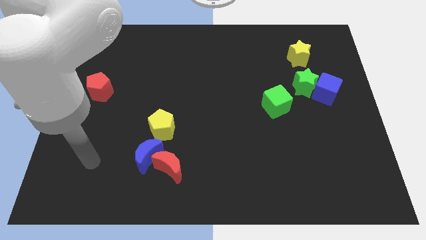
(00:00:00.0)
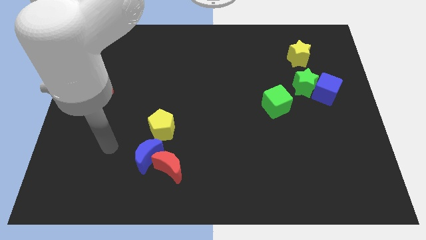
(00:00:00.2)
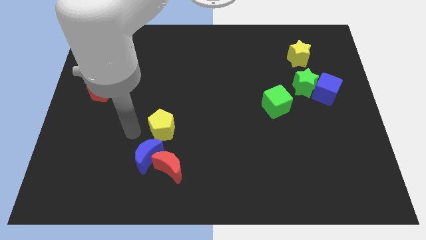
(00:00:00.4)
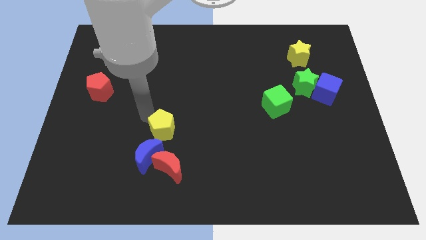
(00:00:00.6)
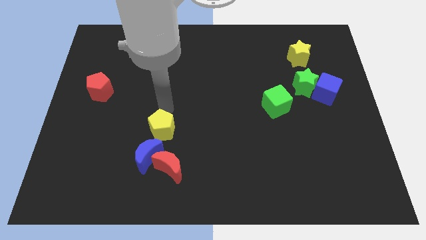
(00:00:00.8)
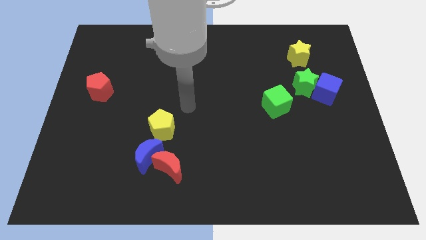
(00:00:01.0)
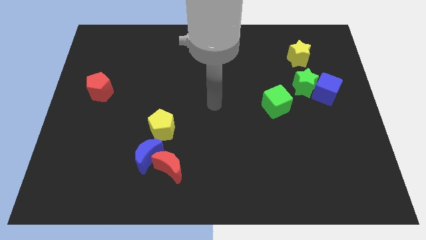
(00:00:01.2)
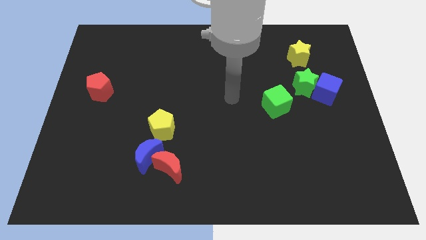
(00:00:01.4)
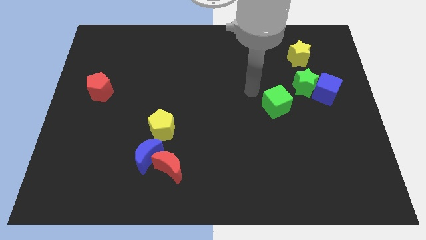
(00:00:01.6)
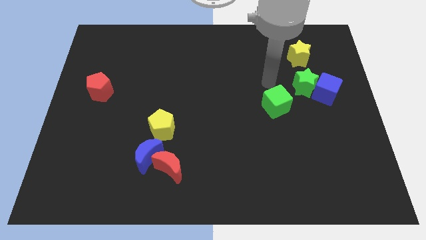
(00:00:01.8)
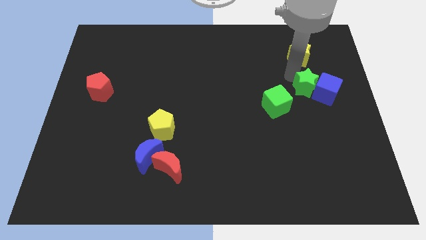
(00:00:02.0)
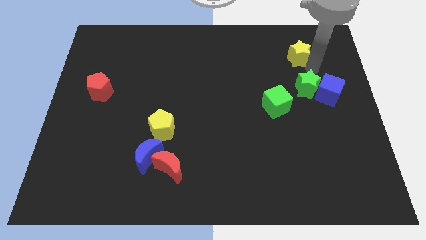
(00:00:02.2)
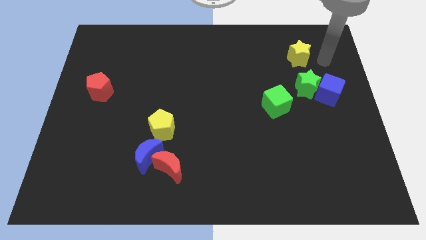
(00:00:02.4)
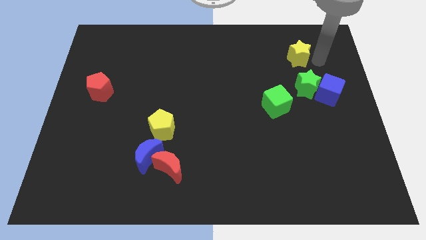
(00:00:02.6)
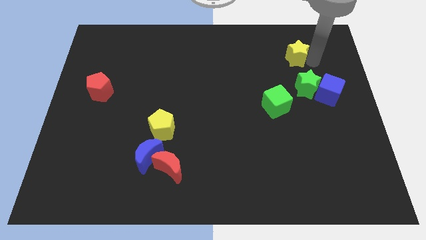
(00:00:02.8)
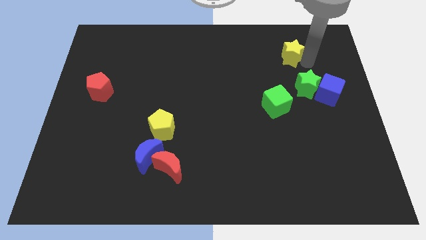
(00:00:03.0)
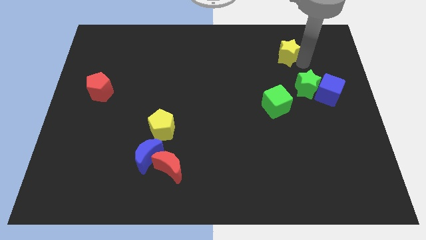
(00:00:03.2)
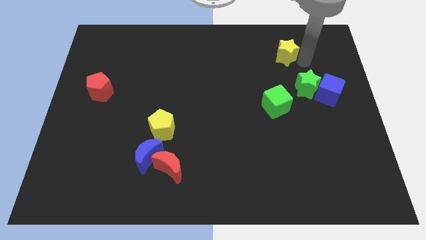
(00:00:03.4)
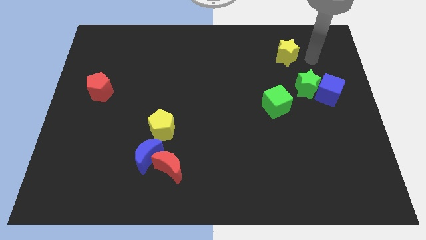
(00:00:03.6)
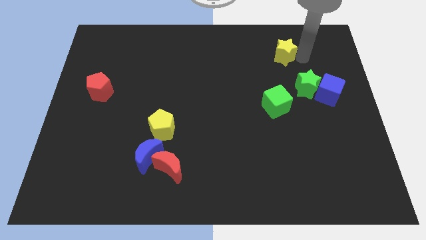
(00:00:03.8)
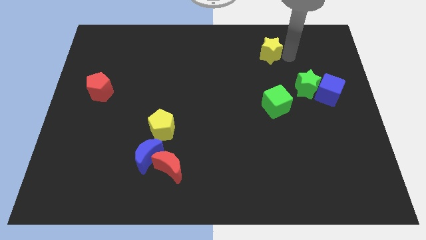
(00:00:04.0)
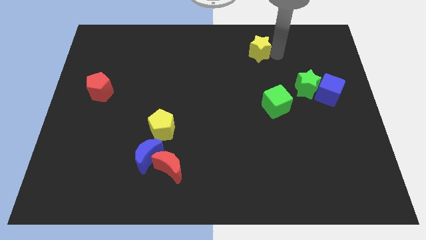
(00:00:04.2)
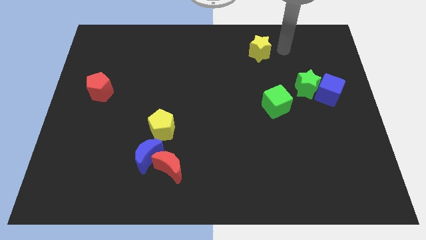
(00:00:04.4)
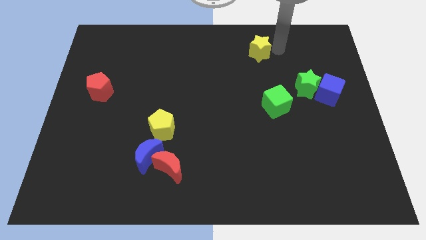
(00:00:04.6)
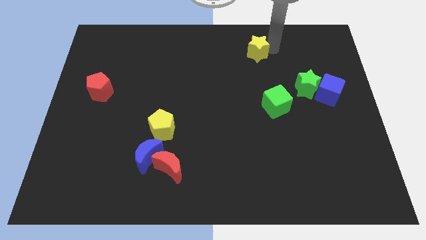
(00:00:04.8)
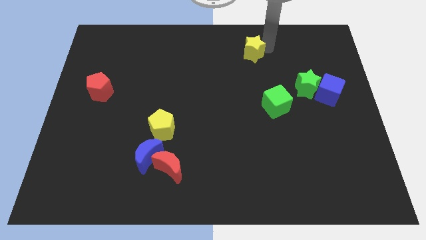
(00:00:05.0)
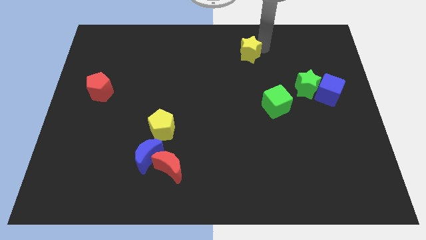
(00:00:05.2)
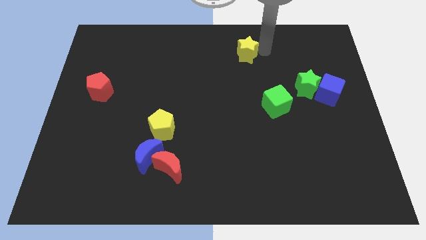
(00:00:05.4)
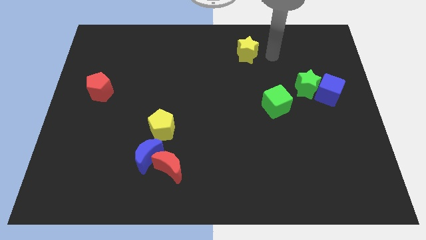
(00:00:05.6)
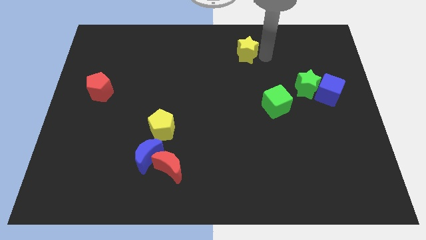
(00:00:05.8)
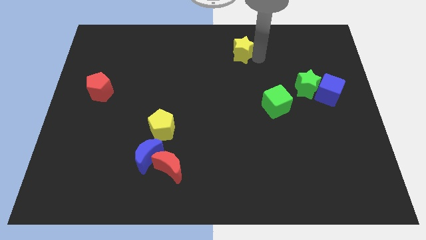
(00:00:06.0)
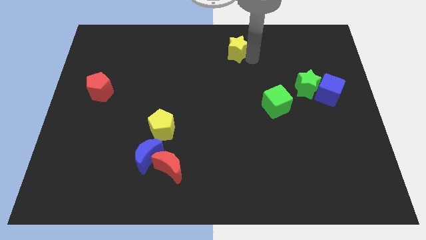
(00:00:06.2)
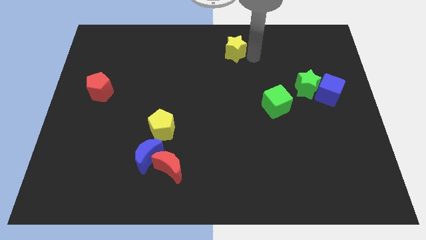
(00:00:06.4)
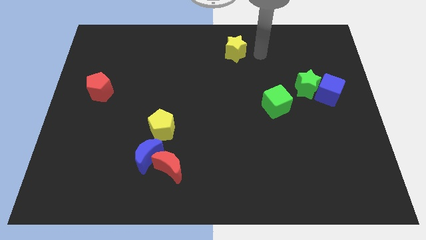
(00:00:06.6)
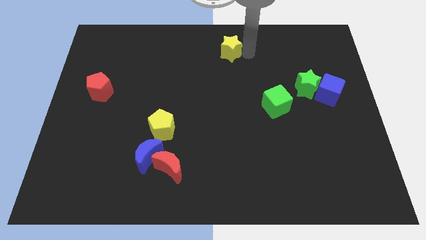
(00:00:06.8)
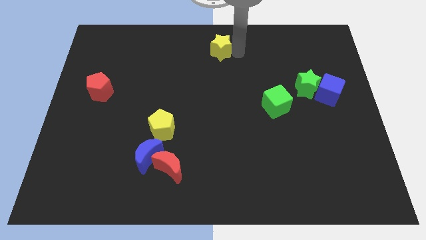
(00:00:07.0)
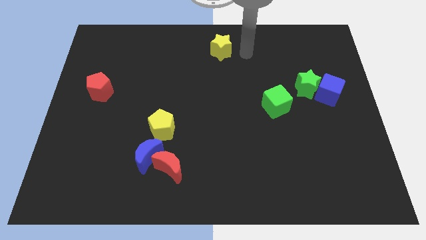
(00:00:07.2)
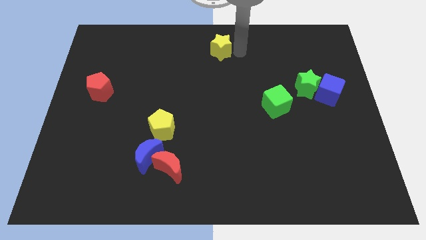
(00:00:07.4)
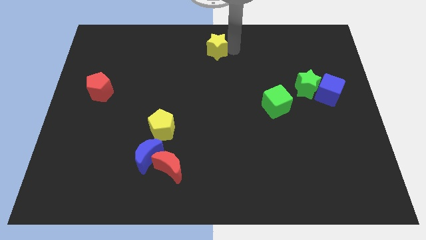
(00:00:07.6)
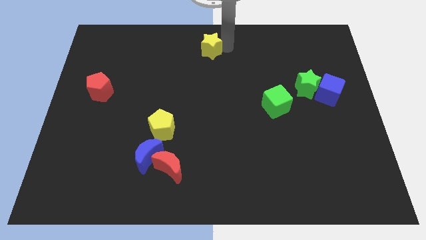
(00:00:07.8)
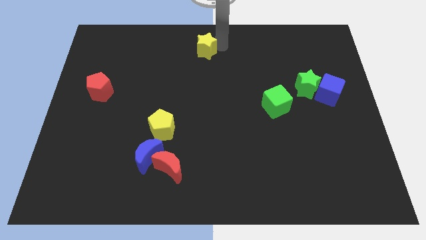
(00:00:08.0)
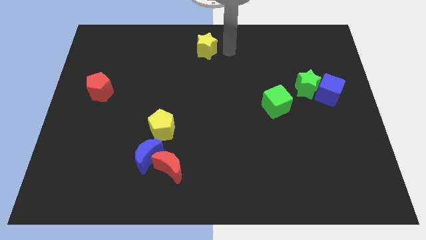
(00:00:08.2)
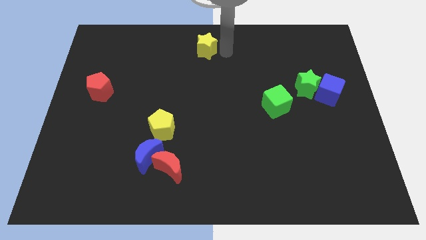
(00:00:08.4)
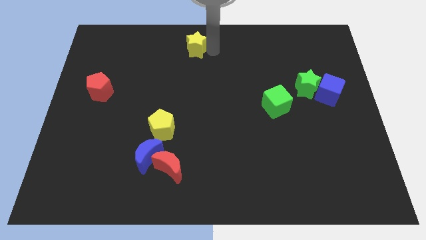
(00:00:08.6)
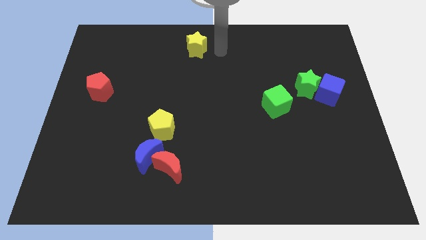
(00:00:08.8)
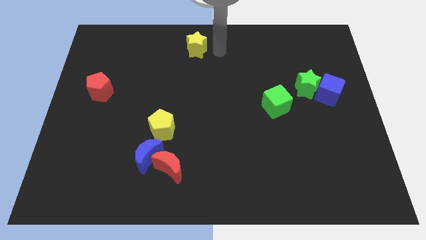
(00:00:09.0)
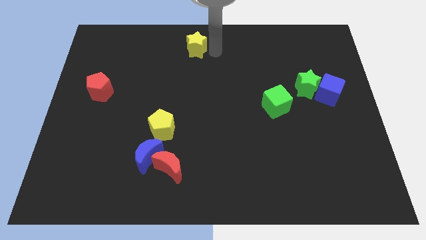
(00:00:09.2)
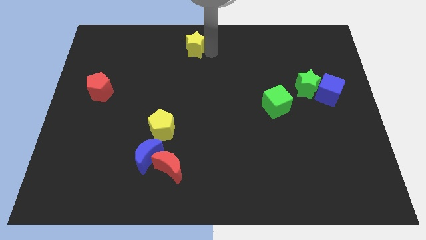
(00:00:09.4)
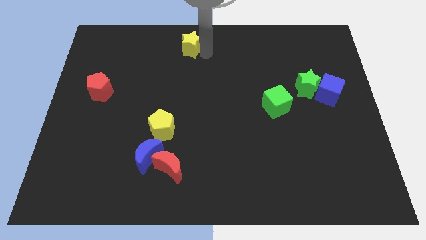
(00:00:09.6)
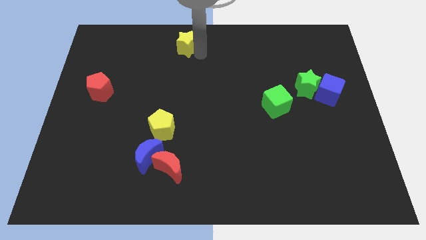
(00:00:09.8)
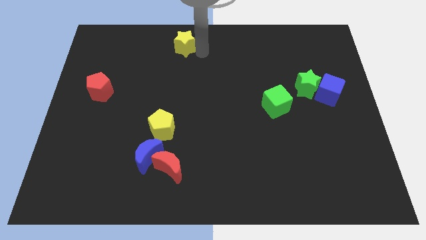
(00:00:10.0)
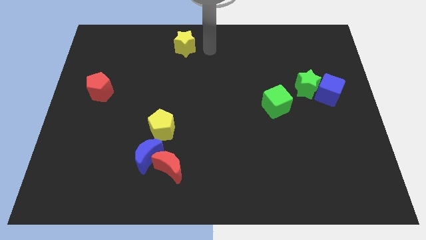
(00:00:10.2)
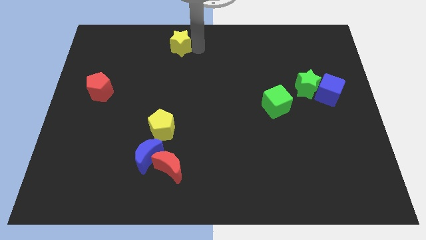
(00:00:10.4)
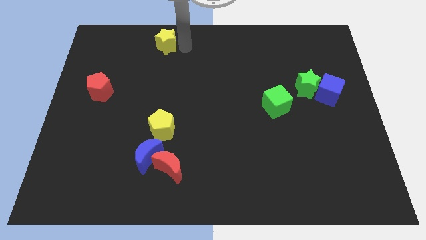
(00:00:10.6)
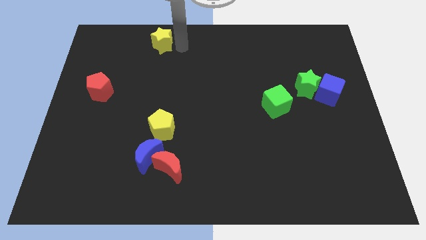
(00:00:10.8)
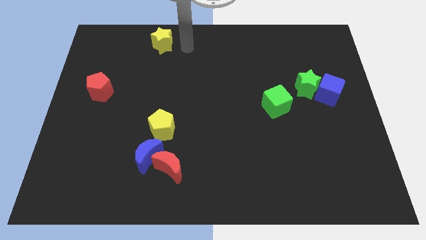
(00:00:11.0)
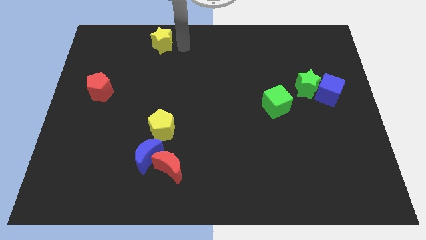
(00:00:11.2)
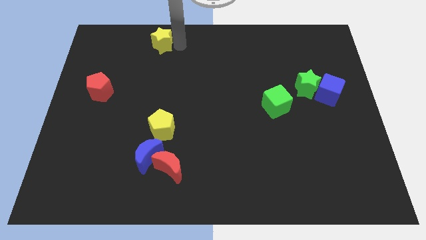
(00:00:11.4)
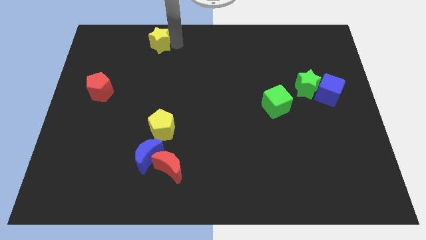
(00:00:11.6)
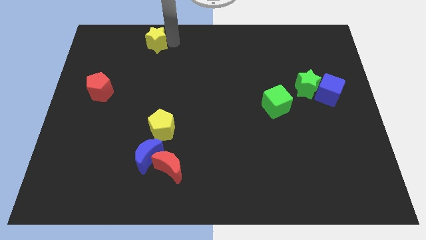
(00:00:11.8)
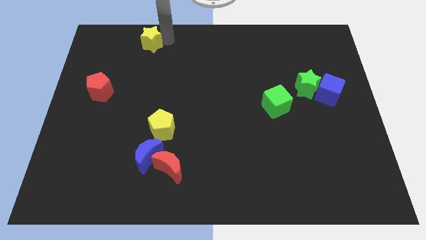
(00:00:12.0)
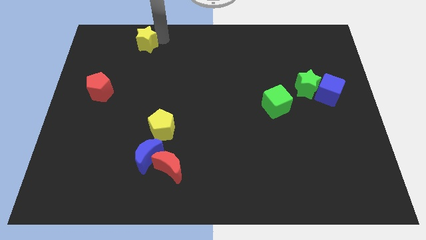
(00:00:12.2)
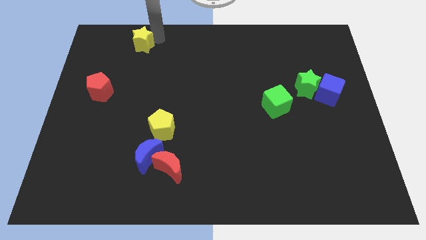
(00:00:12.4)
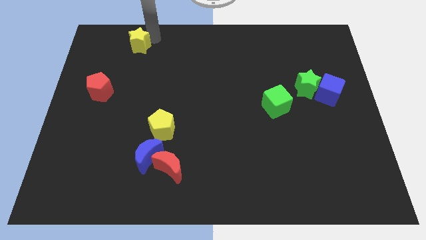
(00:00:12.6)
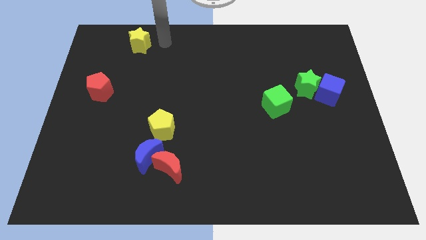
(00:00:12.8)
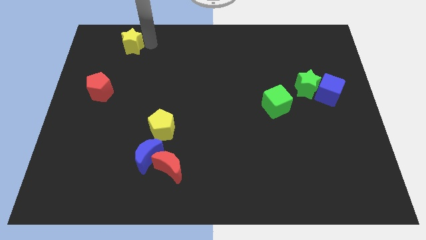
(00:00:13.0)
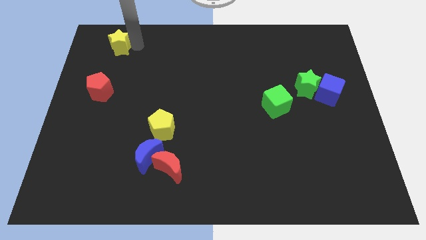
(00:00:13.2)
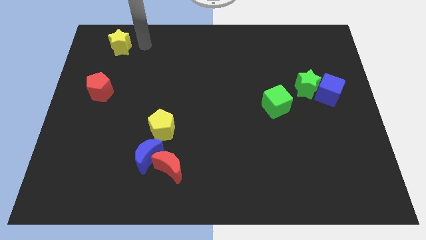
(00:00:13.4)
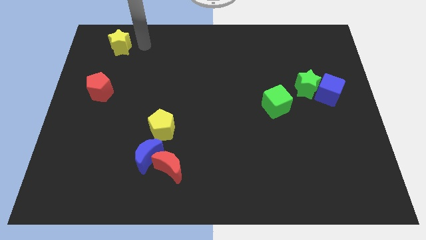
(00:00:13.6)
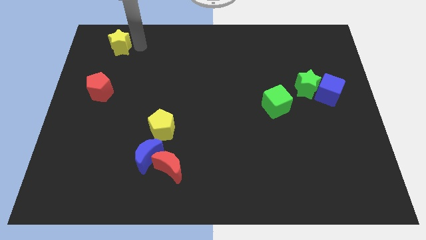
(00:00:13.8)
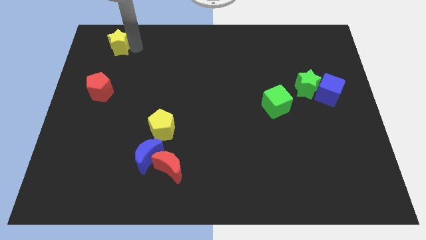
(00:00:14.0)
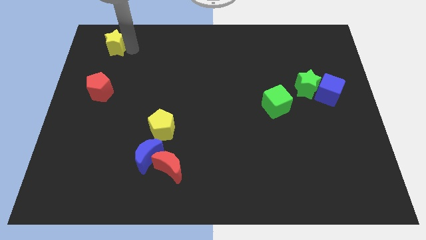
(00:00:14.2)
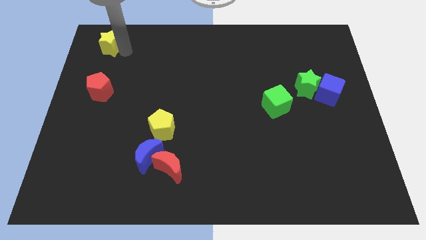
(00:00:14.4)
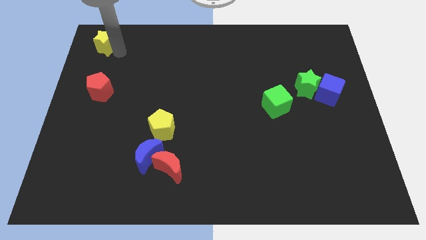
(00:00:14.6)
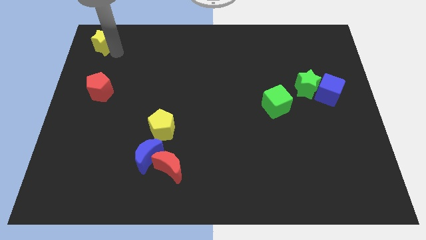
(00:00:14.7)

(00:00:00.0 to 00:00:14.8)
put the yellow star to the top left corner
